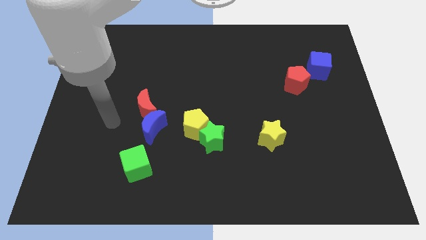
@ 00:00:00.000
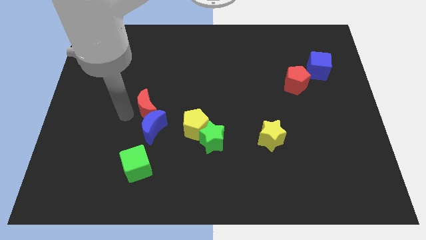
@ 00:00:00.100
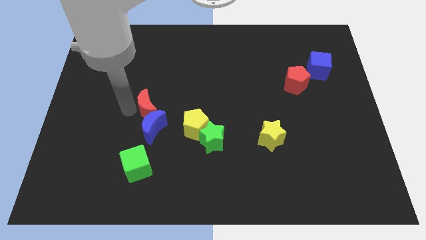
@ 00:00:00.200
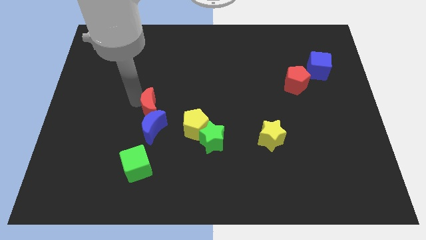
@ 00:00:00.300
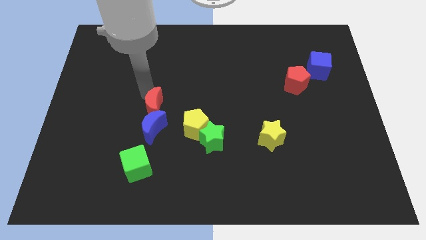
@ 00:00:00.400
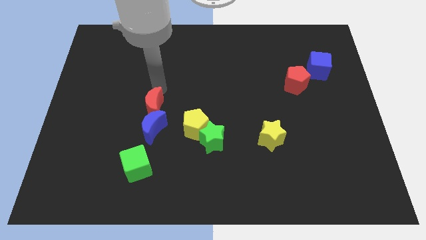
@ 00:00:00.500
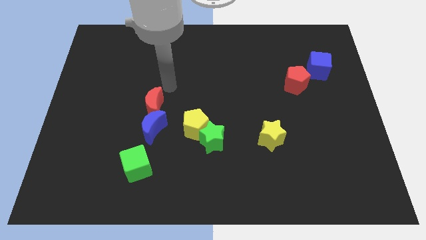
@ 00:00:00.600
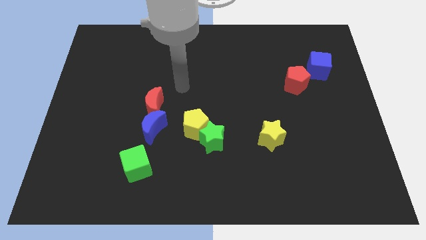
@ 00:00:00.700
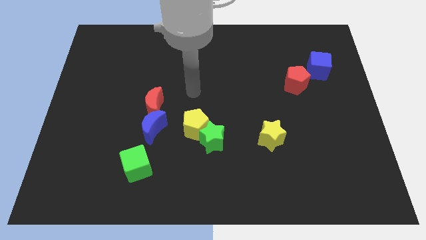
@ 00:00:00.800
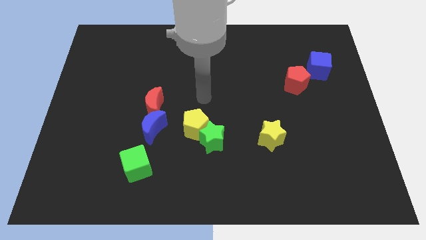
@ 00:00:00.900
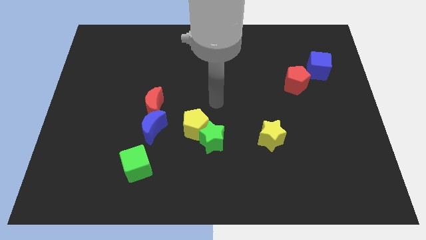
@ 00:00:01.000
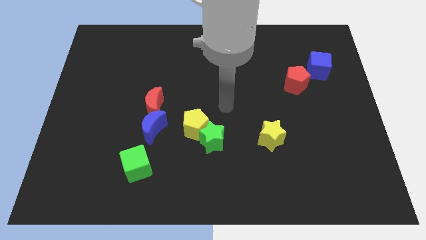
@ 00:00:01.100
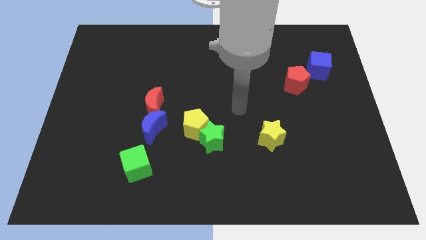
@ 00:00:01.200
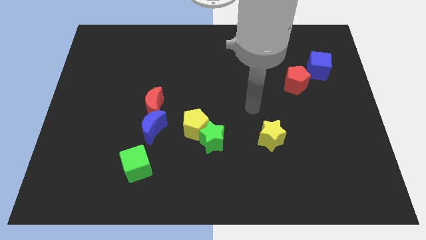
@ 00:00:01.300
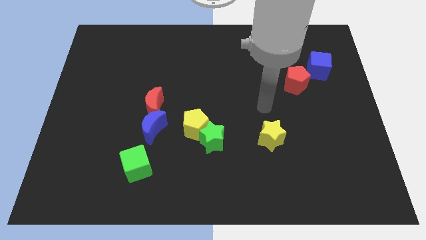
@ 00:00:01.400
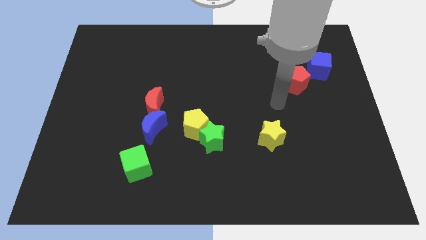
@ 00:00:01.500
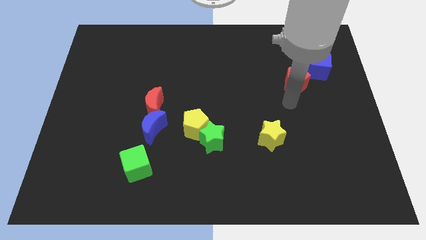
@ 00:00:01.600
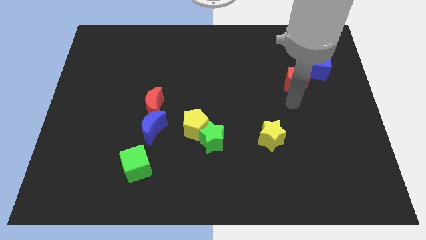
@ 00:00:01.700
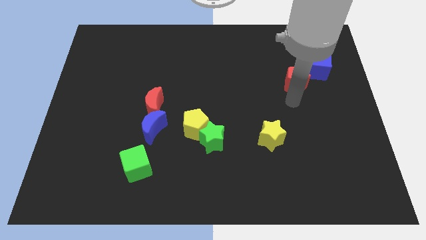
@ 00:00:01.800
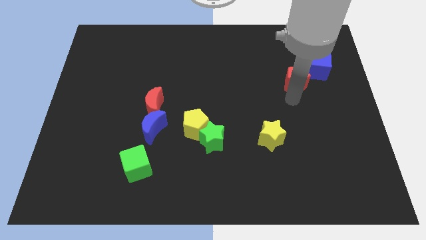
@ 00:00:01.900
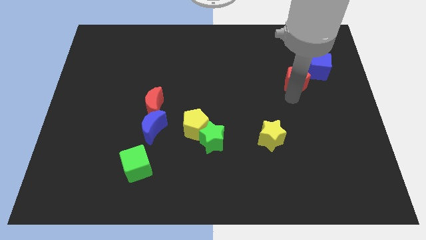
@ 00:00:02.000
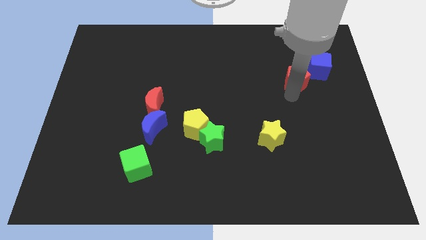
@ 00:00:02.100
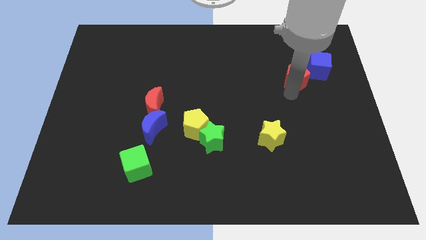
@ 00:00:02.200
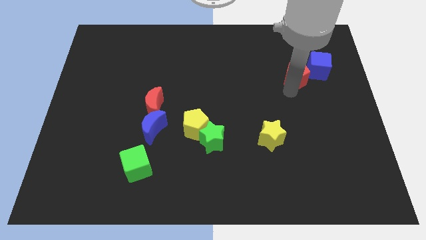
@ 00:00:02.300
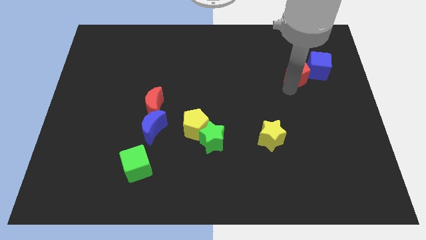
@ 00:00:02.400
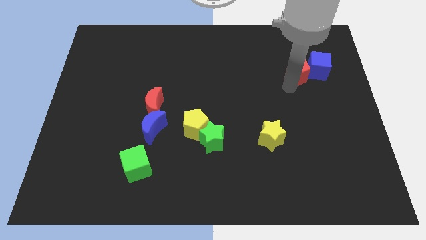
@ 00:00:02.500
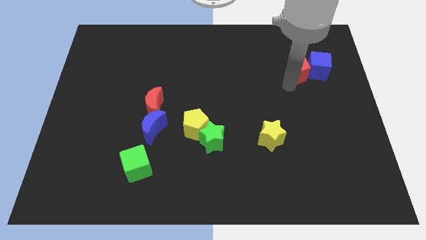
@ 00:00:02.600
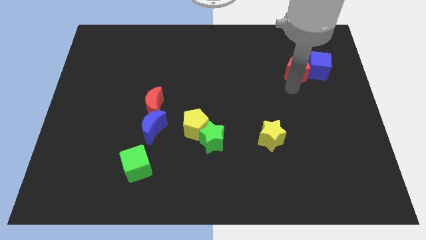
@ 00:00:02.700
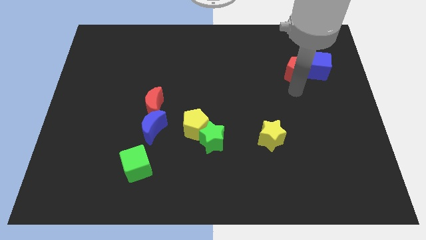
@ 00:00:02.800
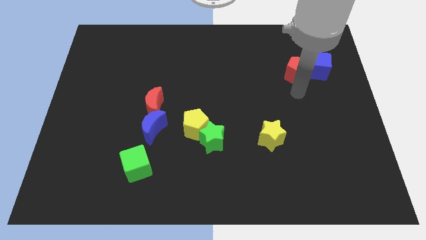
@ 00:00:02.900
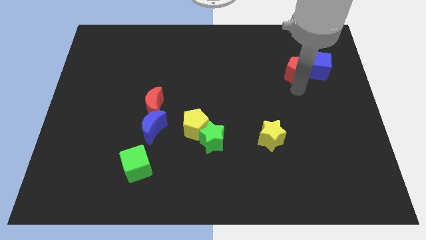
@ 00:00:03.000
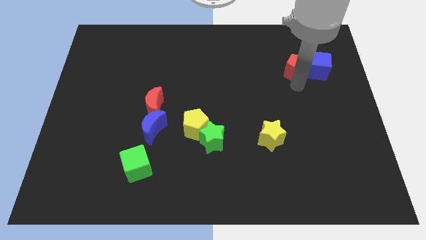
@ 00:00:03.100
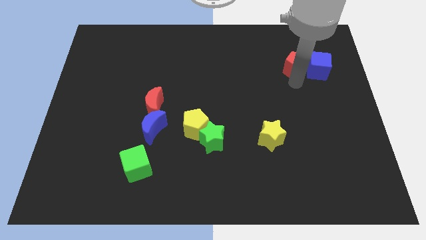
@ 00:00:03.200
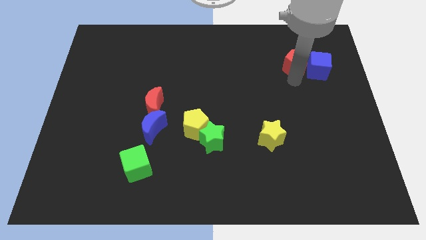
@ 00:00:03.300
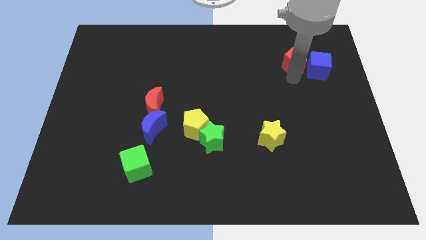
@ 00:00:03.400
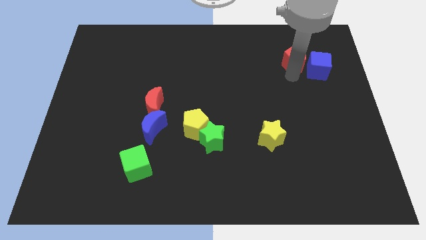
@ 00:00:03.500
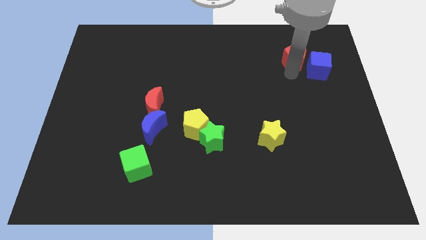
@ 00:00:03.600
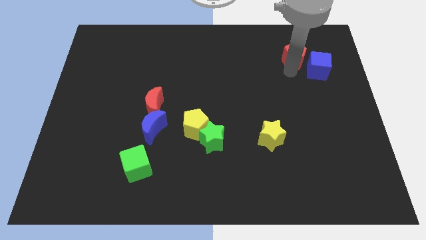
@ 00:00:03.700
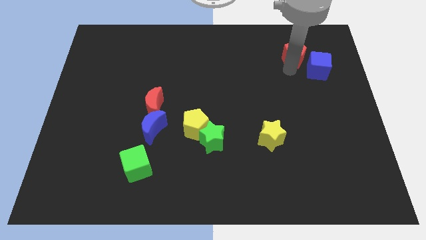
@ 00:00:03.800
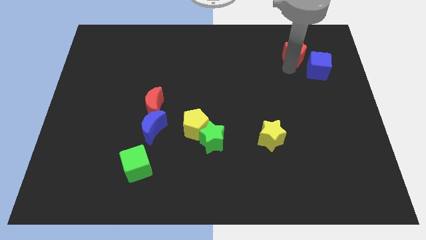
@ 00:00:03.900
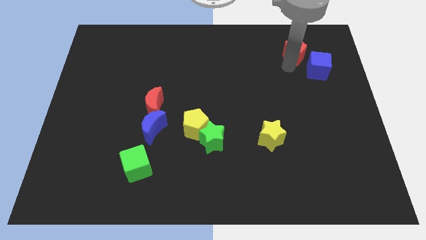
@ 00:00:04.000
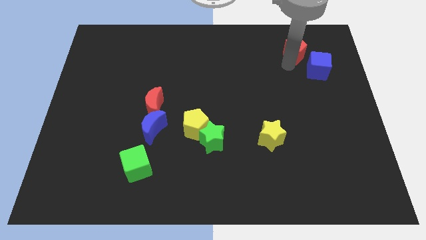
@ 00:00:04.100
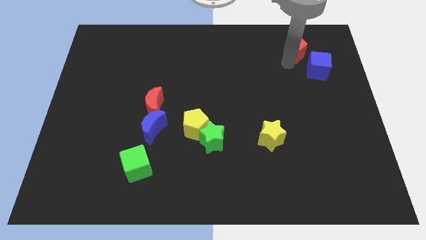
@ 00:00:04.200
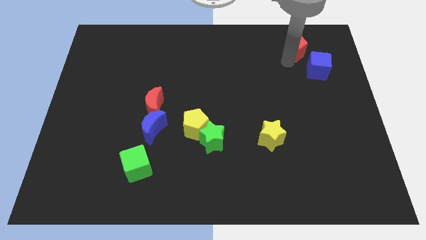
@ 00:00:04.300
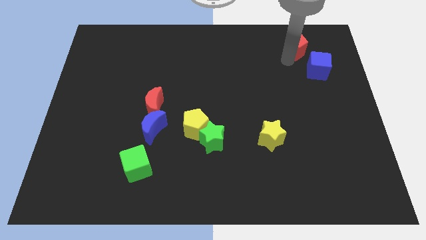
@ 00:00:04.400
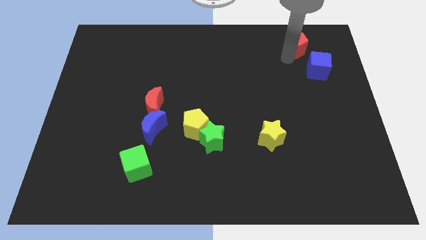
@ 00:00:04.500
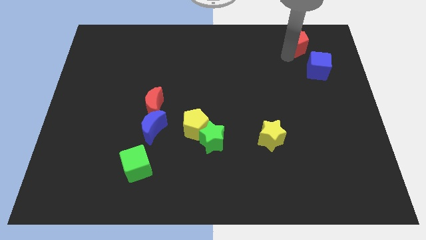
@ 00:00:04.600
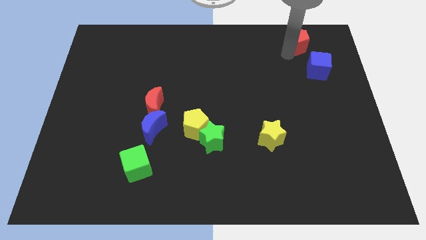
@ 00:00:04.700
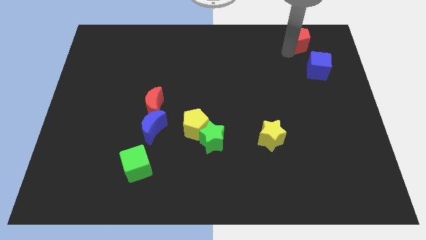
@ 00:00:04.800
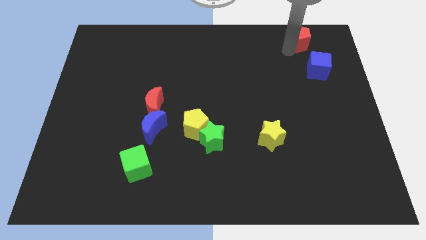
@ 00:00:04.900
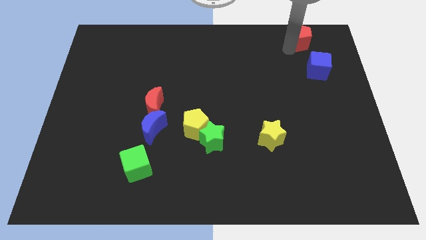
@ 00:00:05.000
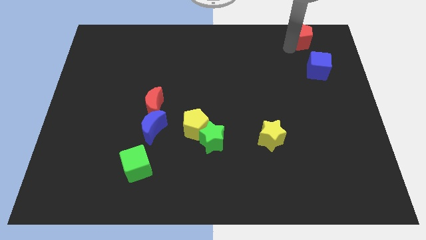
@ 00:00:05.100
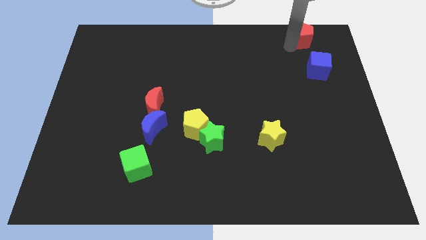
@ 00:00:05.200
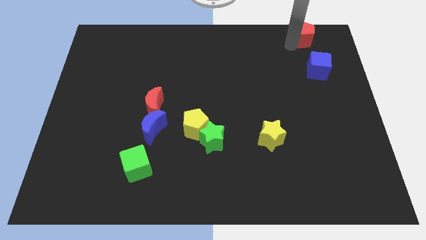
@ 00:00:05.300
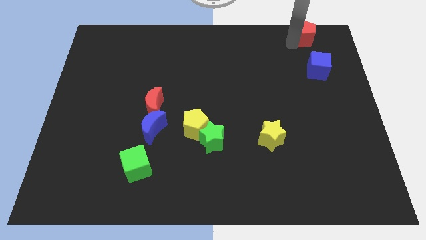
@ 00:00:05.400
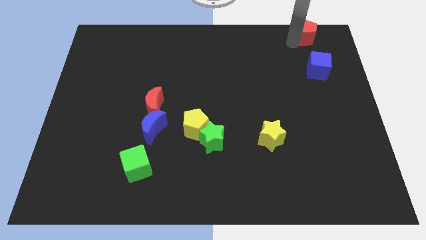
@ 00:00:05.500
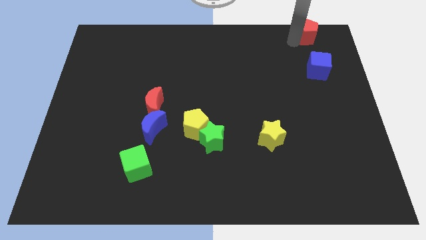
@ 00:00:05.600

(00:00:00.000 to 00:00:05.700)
slide the red pentagon to the upper right corner

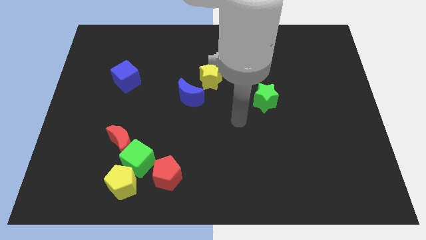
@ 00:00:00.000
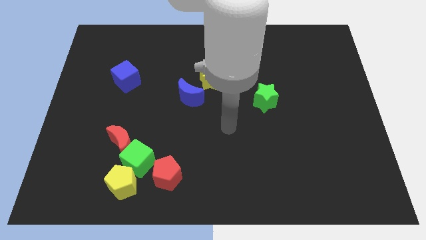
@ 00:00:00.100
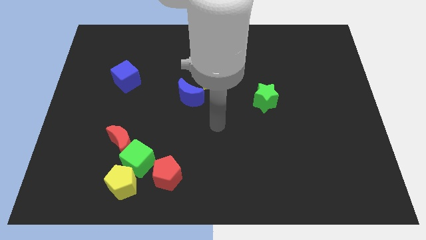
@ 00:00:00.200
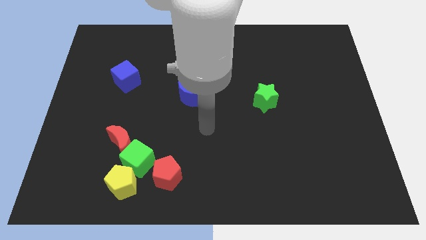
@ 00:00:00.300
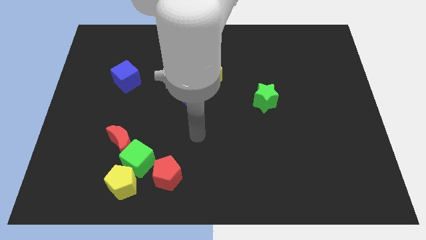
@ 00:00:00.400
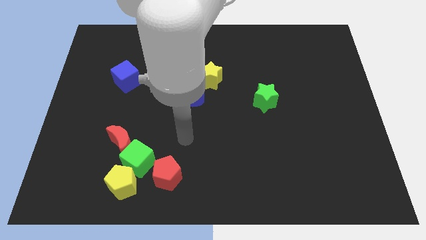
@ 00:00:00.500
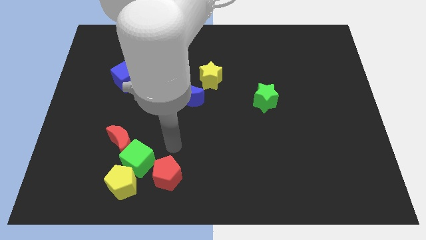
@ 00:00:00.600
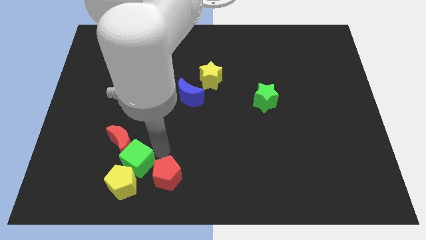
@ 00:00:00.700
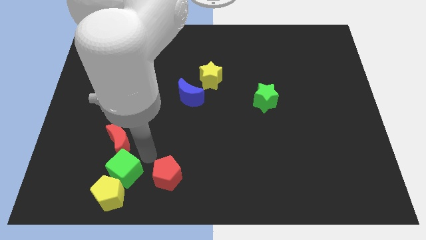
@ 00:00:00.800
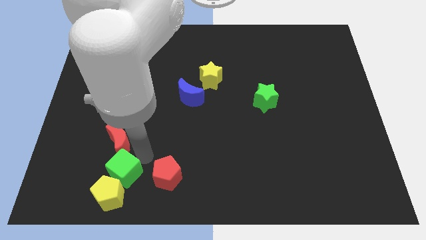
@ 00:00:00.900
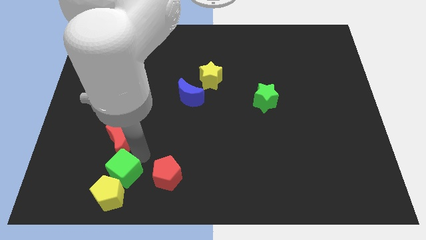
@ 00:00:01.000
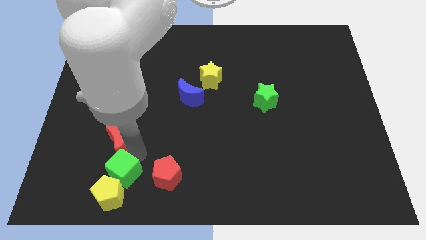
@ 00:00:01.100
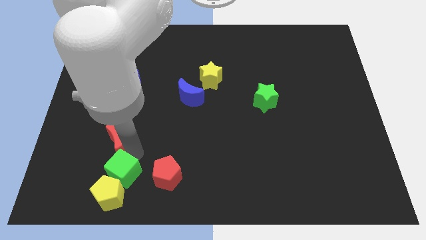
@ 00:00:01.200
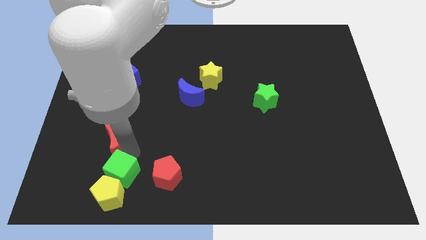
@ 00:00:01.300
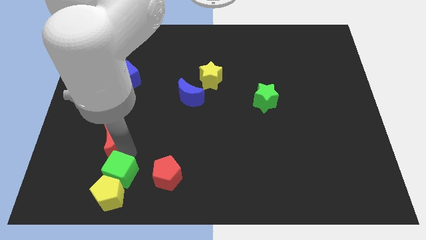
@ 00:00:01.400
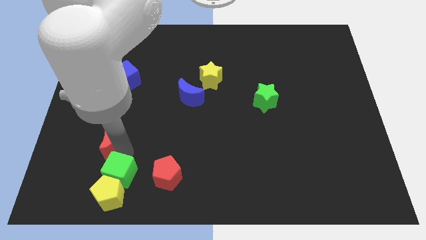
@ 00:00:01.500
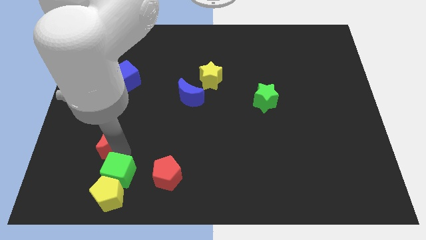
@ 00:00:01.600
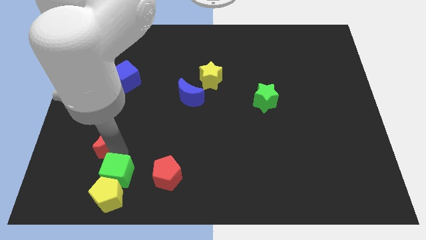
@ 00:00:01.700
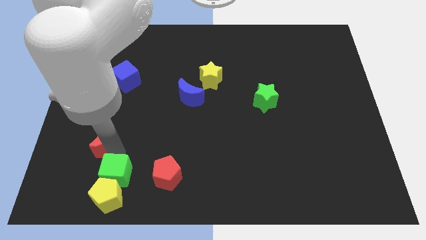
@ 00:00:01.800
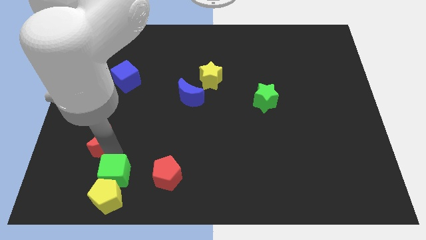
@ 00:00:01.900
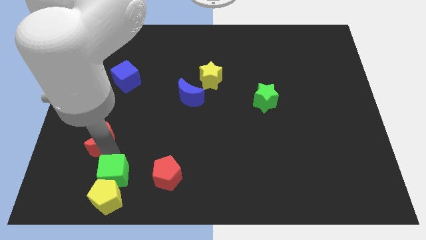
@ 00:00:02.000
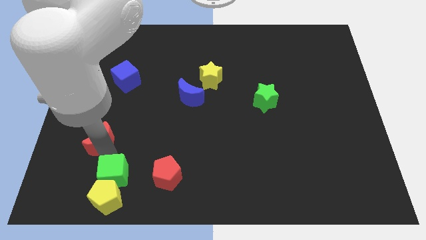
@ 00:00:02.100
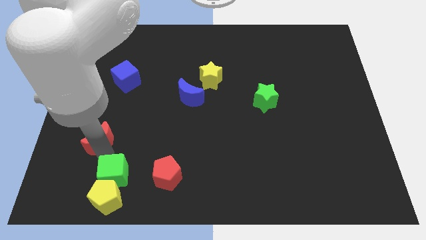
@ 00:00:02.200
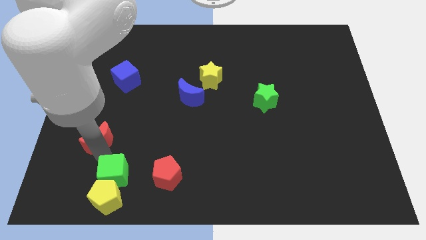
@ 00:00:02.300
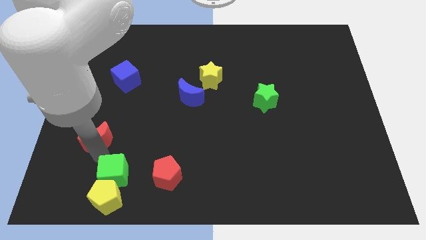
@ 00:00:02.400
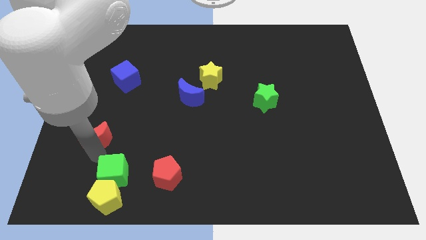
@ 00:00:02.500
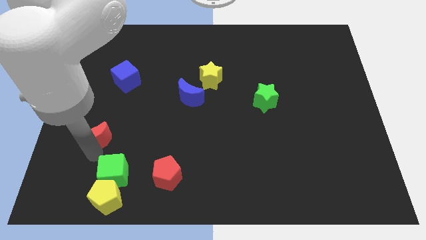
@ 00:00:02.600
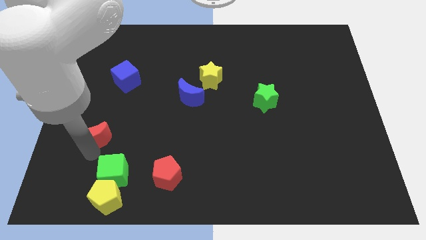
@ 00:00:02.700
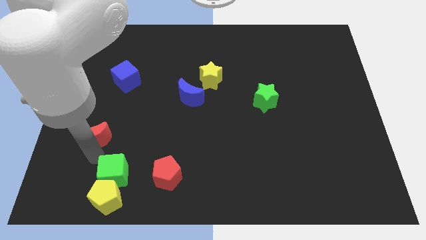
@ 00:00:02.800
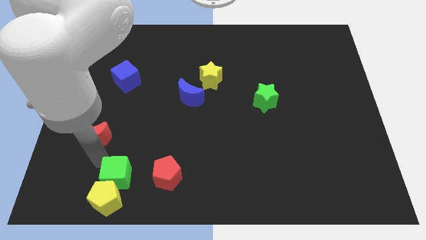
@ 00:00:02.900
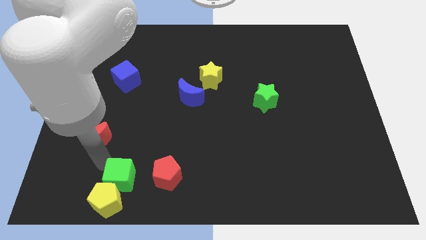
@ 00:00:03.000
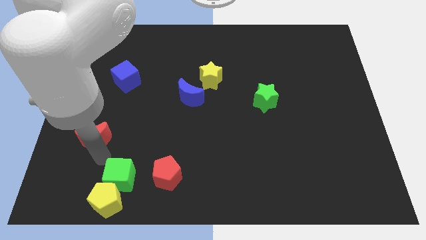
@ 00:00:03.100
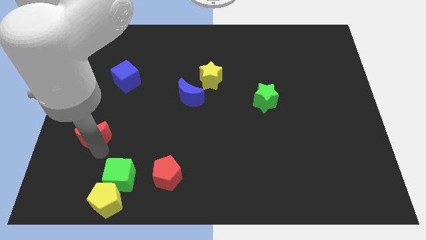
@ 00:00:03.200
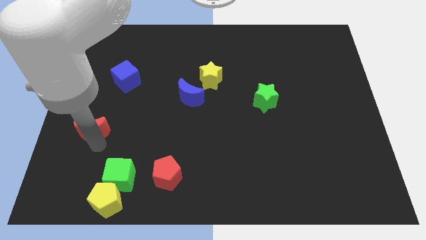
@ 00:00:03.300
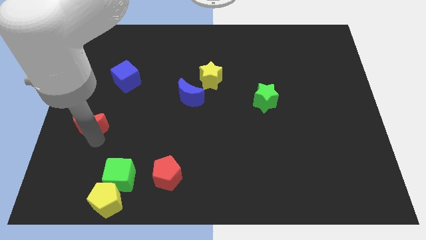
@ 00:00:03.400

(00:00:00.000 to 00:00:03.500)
put the red moon to the left side
